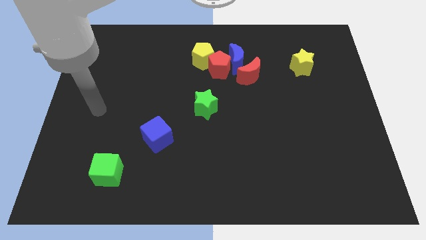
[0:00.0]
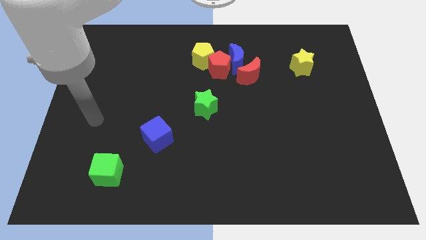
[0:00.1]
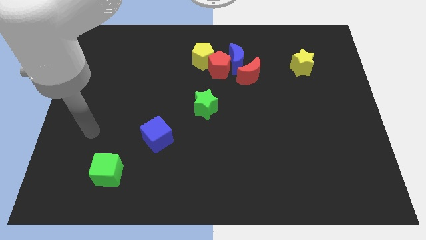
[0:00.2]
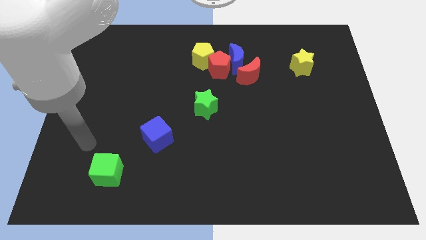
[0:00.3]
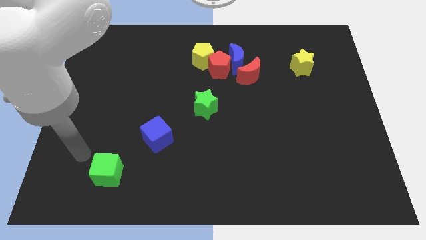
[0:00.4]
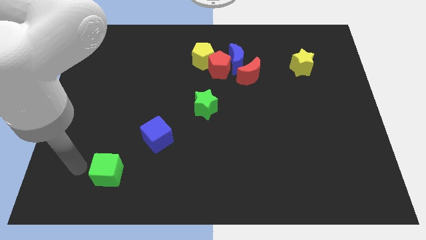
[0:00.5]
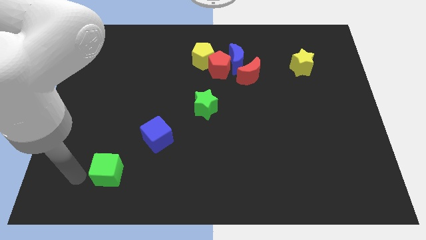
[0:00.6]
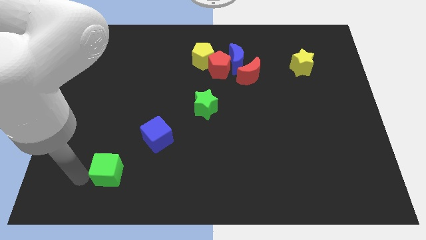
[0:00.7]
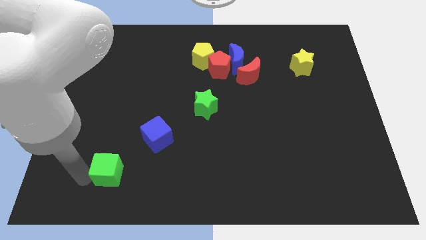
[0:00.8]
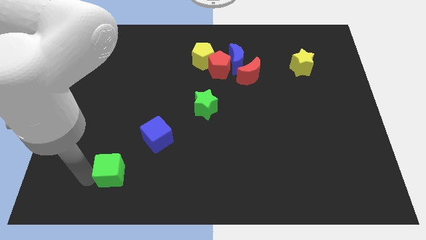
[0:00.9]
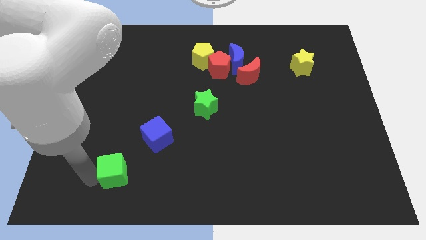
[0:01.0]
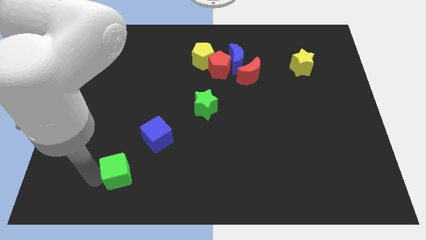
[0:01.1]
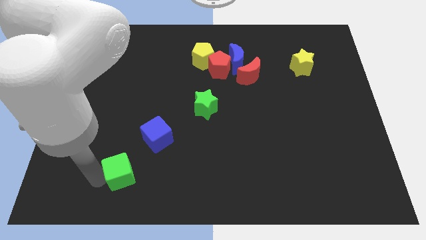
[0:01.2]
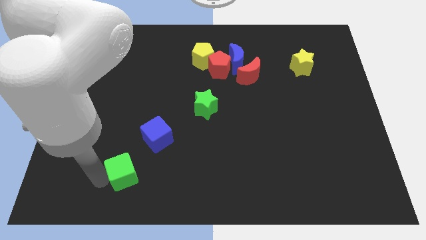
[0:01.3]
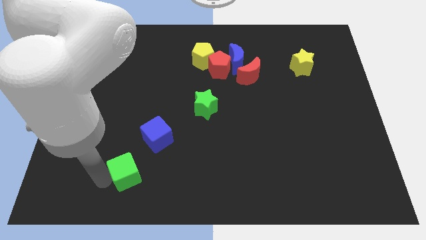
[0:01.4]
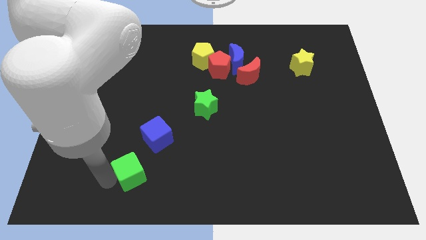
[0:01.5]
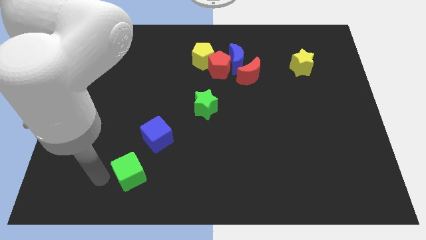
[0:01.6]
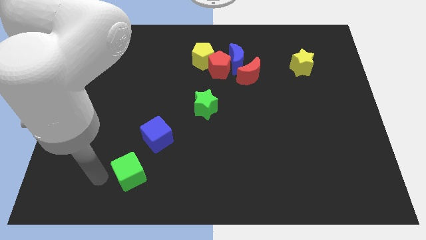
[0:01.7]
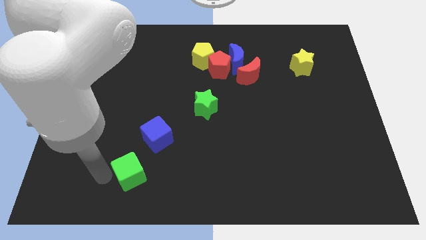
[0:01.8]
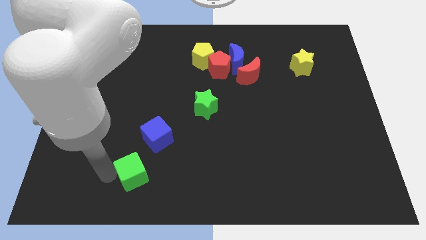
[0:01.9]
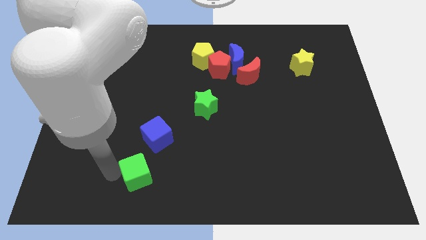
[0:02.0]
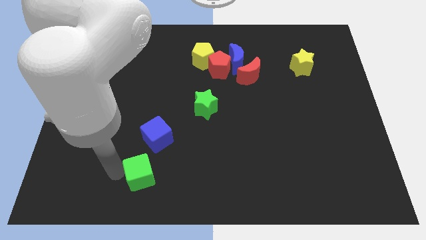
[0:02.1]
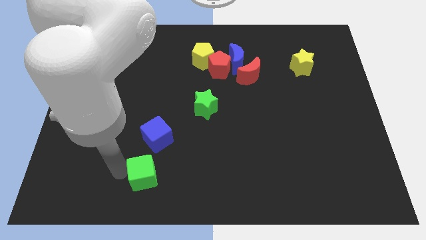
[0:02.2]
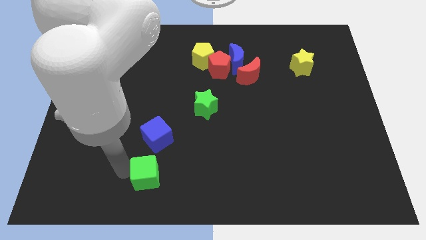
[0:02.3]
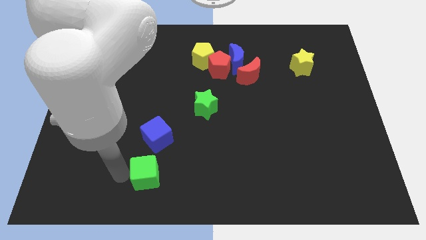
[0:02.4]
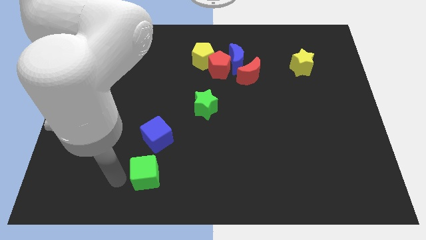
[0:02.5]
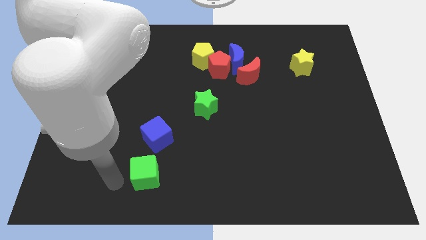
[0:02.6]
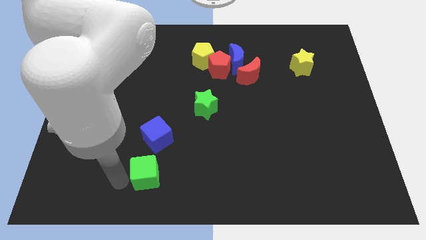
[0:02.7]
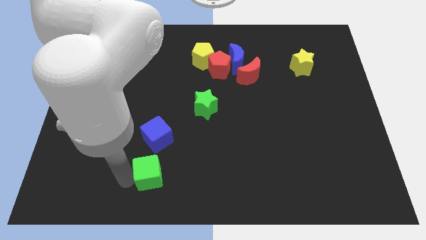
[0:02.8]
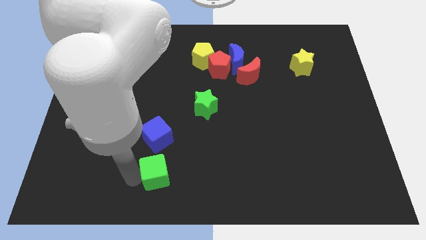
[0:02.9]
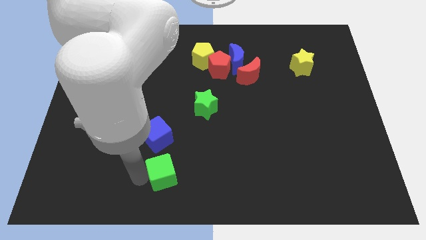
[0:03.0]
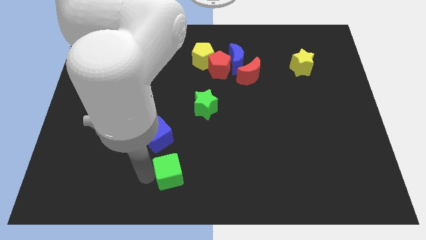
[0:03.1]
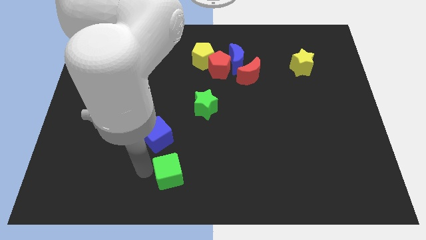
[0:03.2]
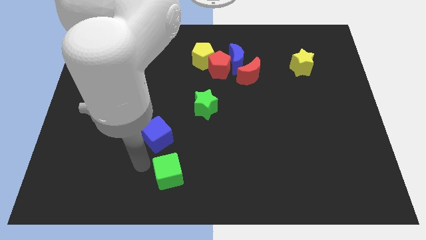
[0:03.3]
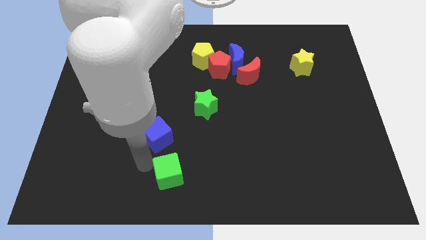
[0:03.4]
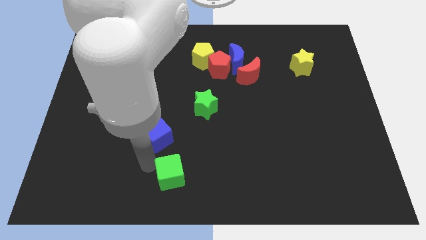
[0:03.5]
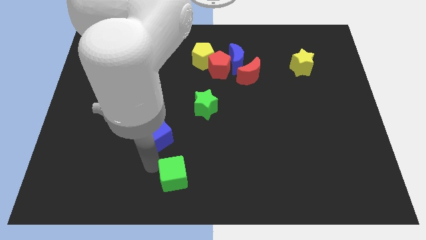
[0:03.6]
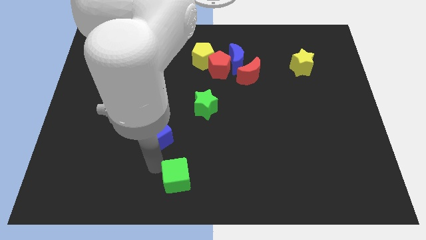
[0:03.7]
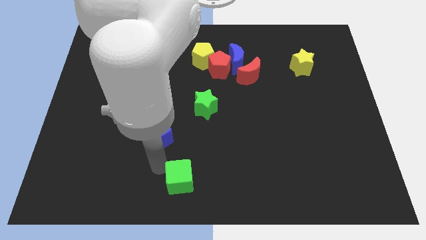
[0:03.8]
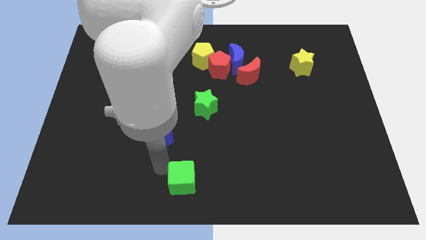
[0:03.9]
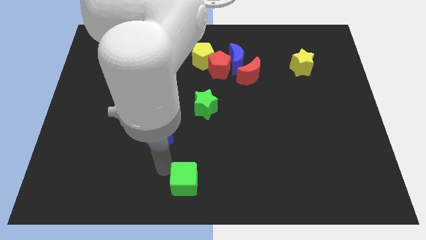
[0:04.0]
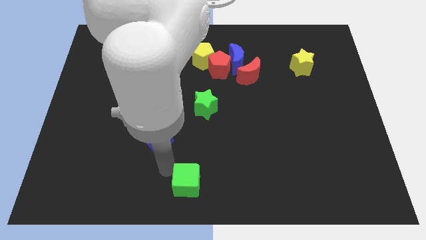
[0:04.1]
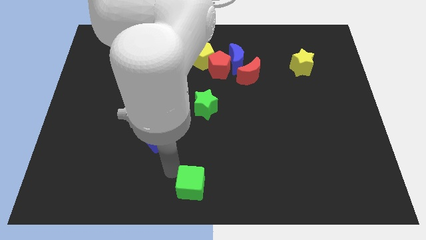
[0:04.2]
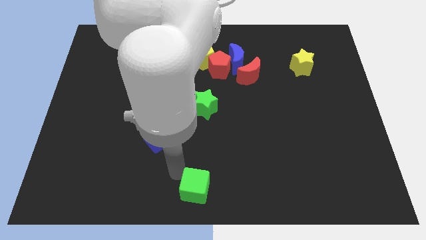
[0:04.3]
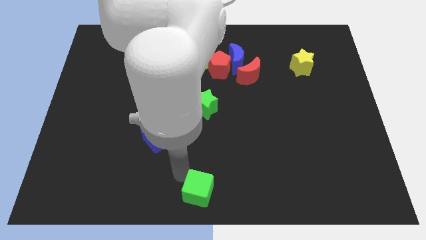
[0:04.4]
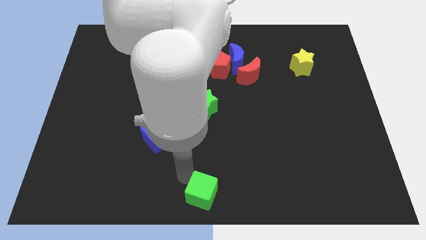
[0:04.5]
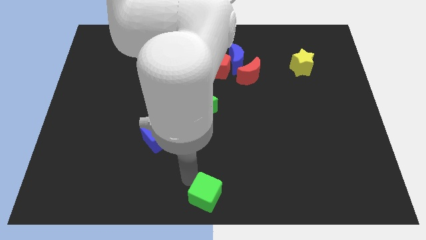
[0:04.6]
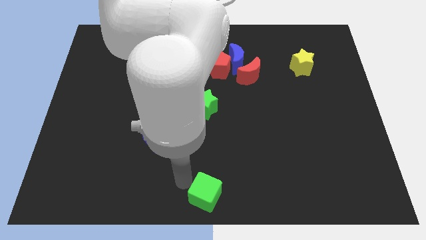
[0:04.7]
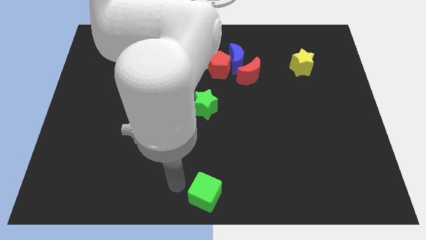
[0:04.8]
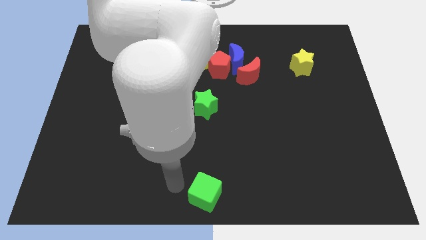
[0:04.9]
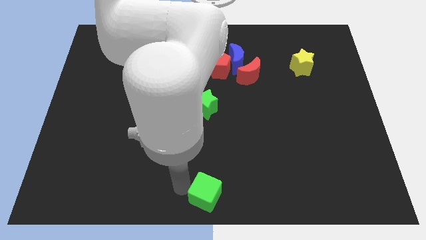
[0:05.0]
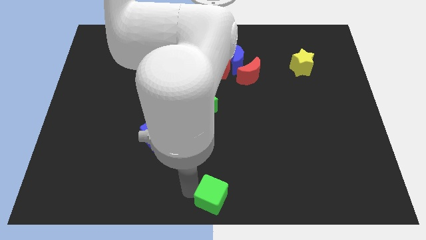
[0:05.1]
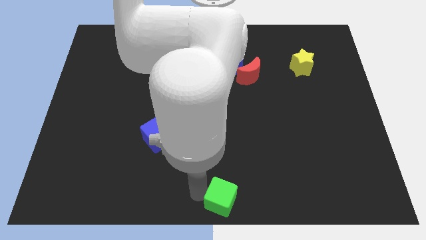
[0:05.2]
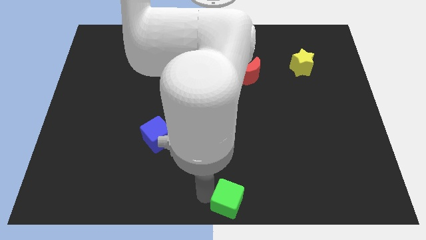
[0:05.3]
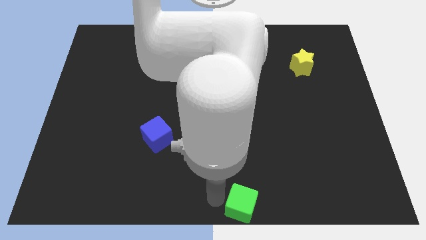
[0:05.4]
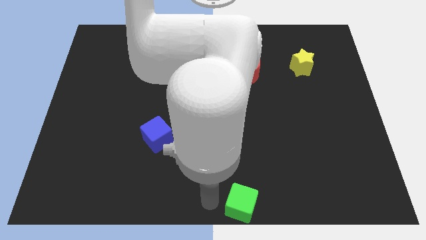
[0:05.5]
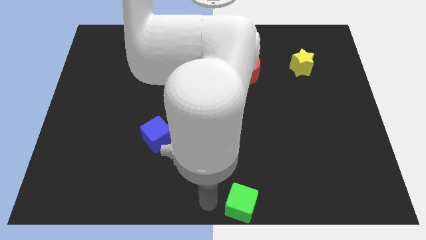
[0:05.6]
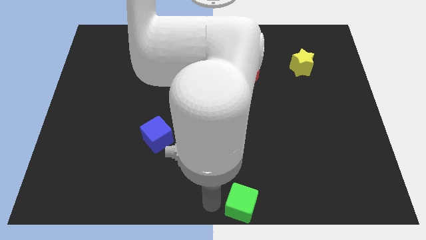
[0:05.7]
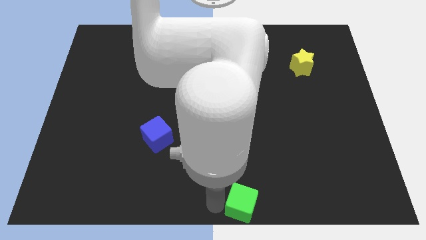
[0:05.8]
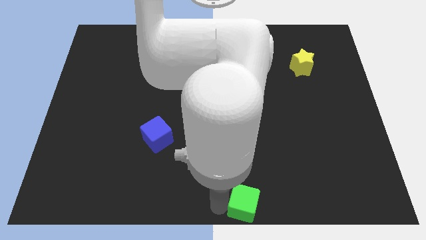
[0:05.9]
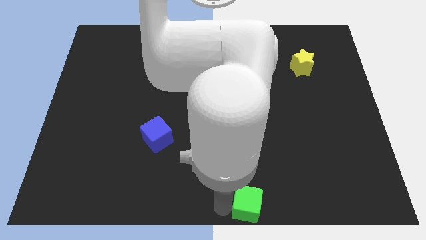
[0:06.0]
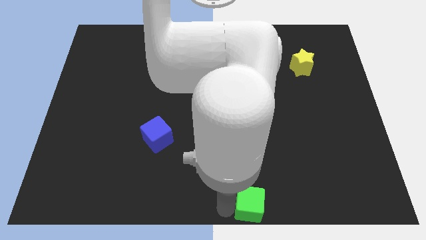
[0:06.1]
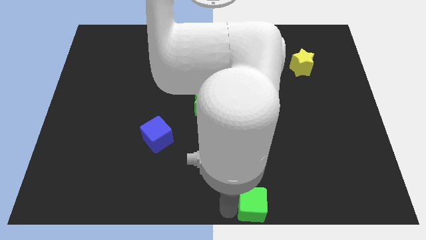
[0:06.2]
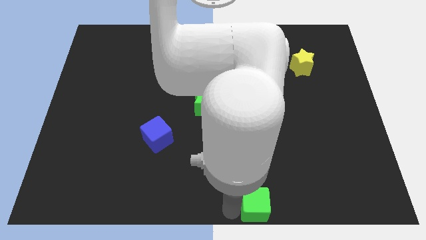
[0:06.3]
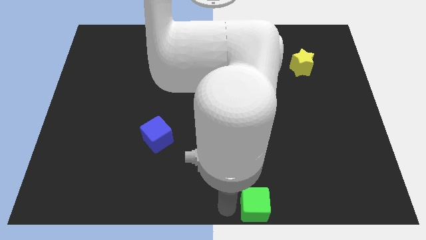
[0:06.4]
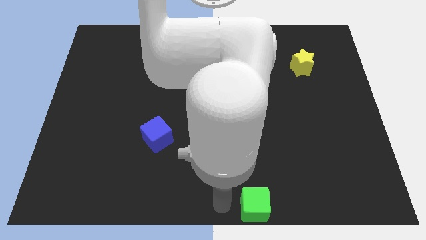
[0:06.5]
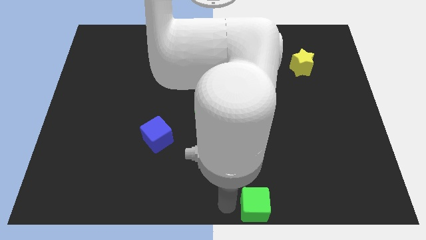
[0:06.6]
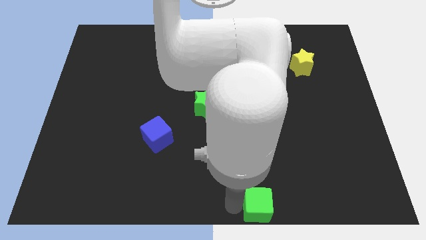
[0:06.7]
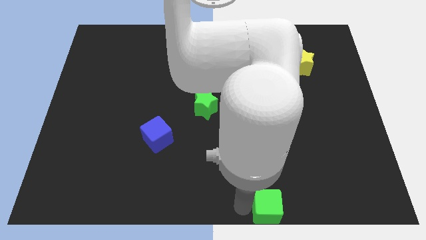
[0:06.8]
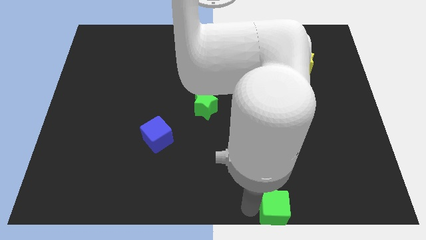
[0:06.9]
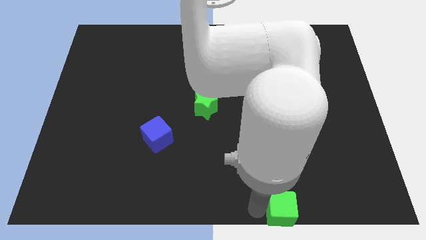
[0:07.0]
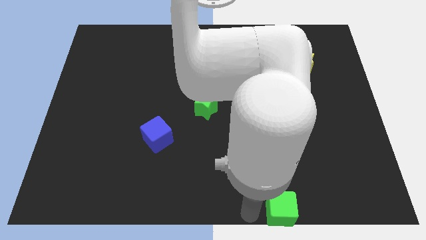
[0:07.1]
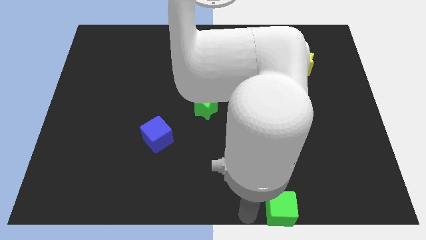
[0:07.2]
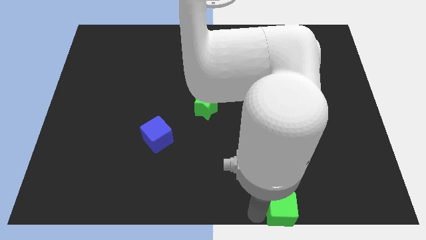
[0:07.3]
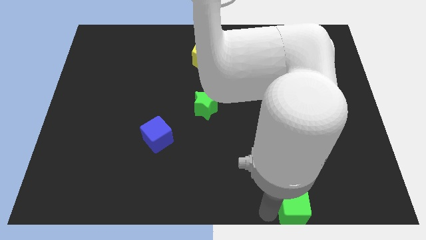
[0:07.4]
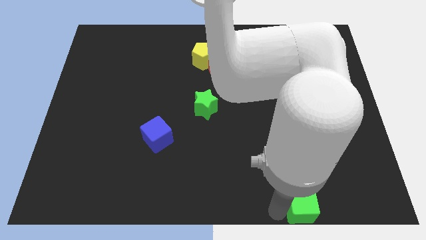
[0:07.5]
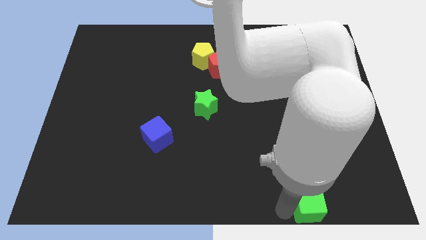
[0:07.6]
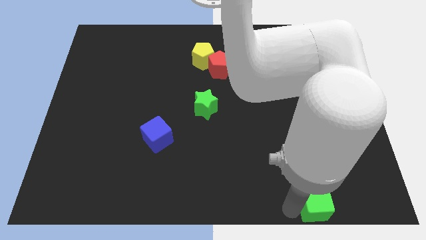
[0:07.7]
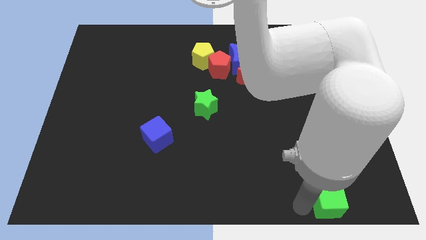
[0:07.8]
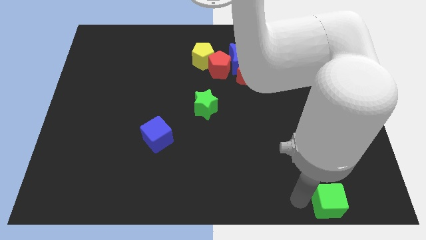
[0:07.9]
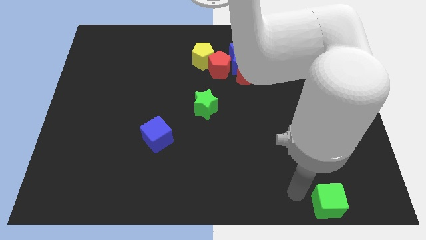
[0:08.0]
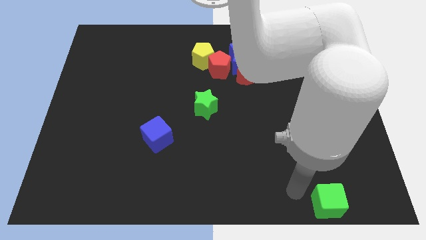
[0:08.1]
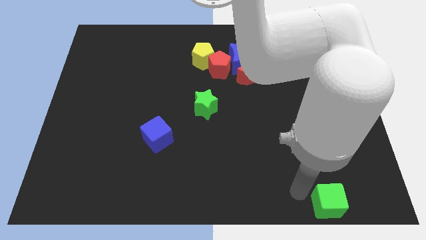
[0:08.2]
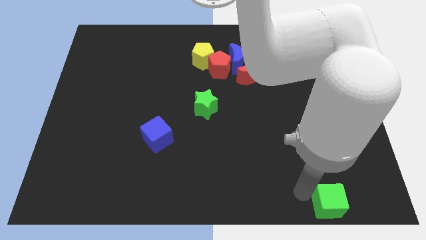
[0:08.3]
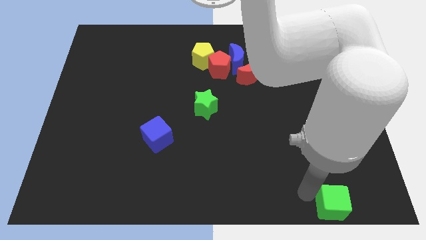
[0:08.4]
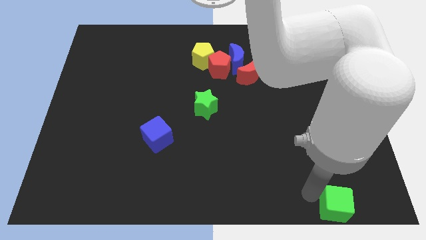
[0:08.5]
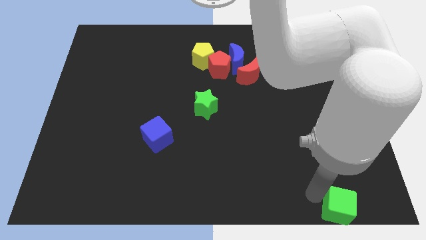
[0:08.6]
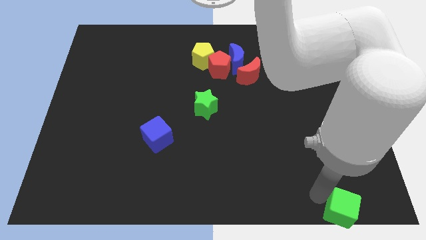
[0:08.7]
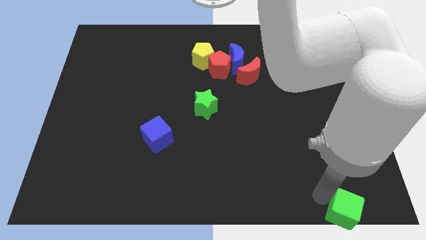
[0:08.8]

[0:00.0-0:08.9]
move the green cube to the bottom right corner
